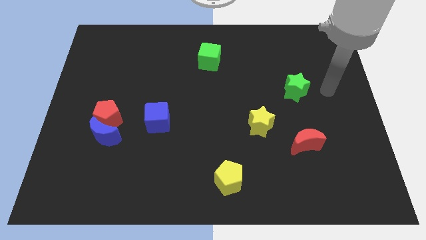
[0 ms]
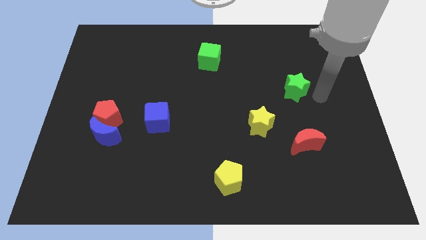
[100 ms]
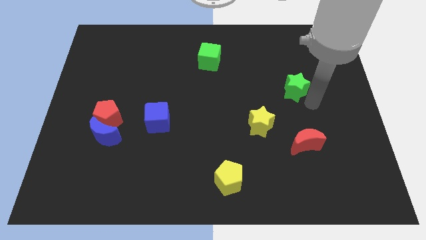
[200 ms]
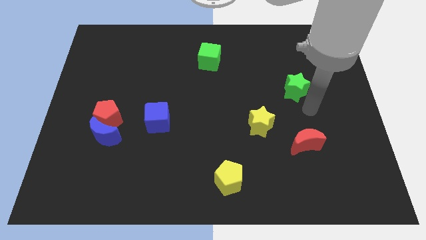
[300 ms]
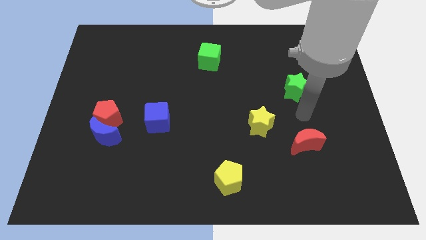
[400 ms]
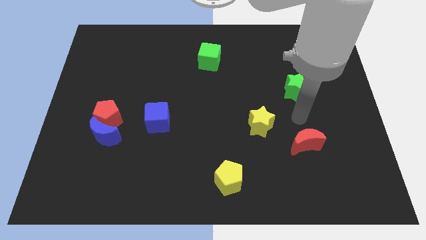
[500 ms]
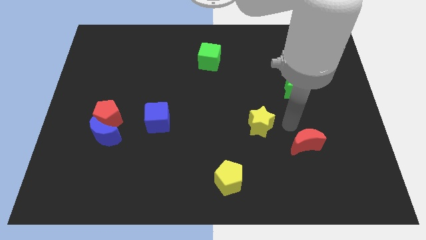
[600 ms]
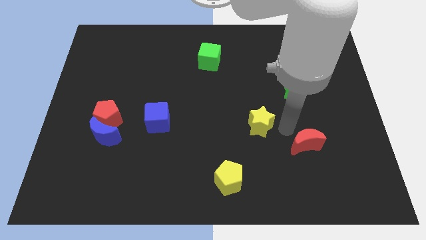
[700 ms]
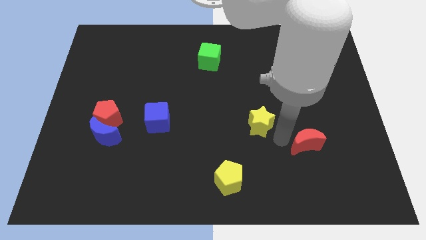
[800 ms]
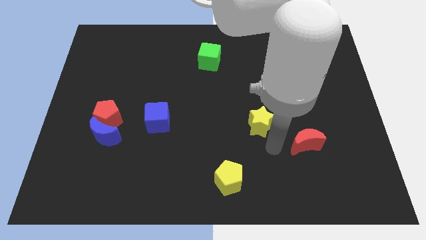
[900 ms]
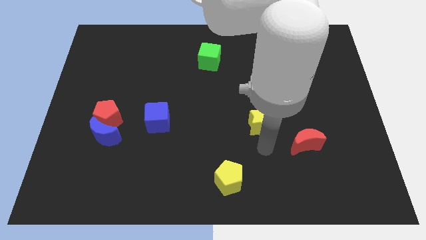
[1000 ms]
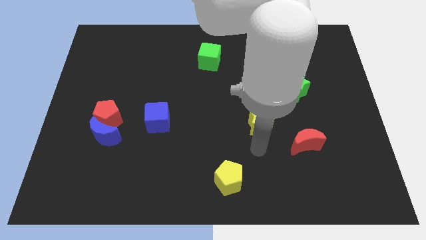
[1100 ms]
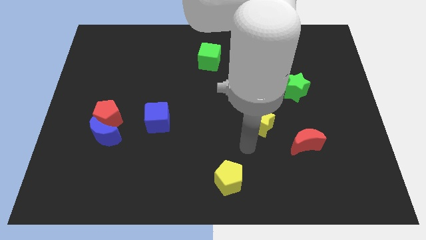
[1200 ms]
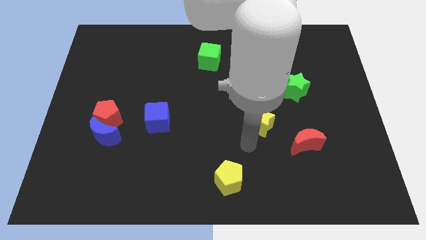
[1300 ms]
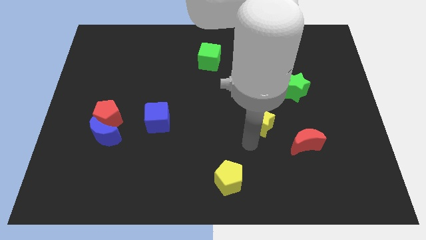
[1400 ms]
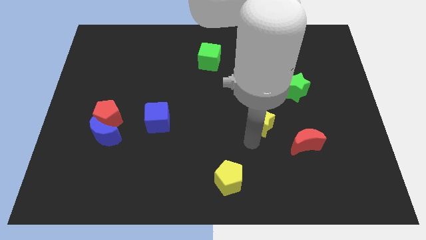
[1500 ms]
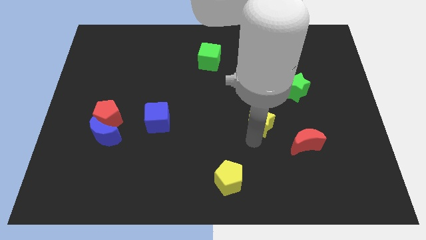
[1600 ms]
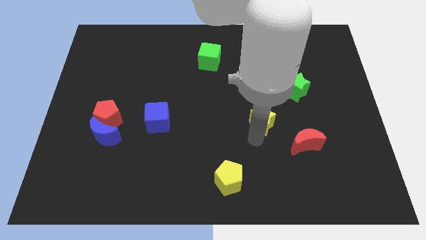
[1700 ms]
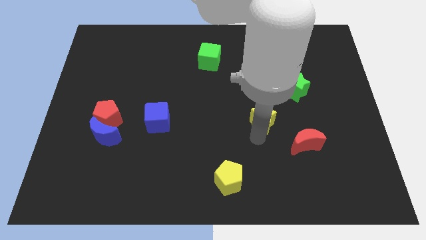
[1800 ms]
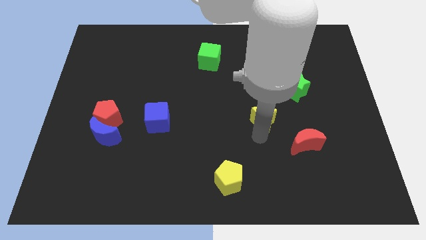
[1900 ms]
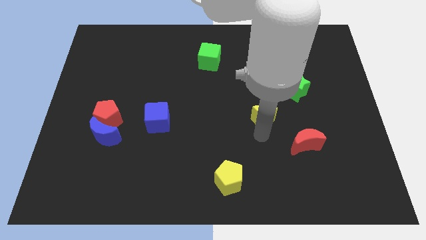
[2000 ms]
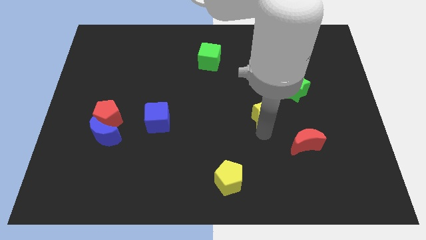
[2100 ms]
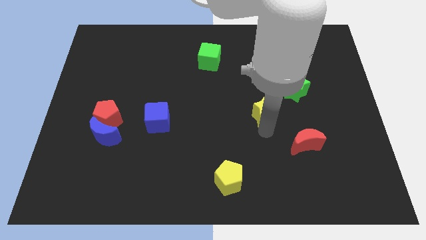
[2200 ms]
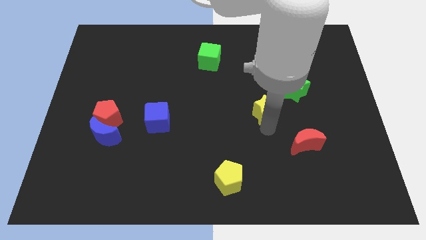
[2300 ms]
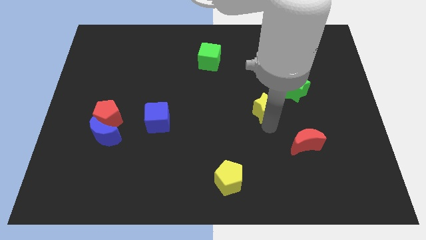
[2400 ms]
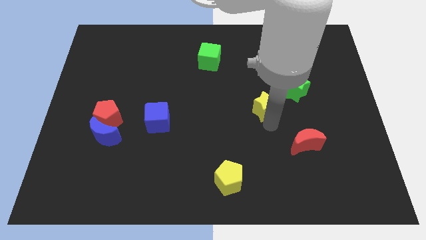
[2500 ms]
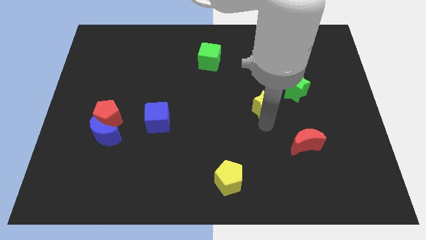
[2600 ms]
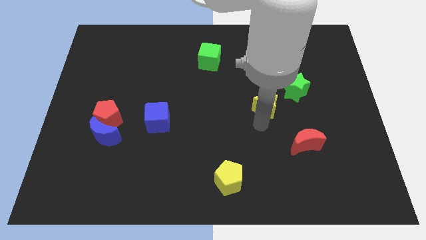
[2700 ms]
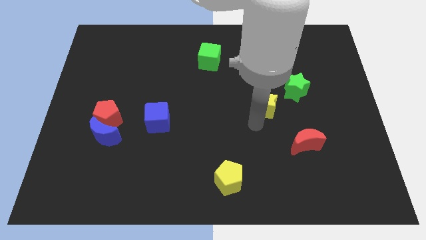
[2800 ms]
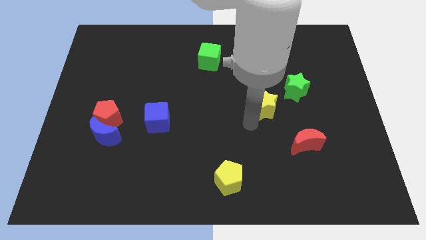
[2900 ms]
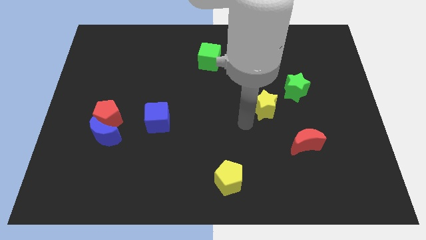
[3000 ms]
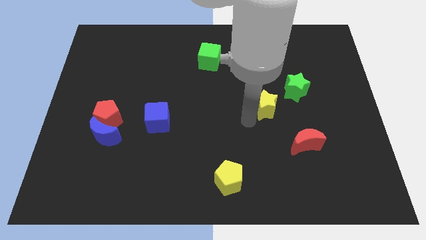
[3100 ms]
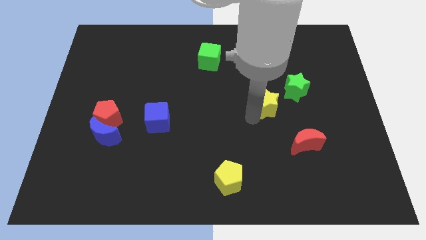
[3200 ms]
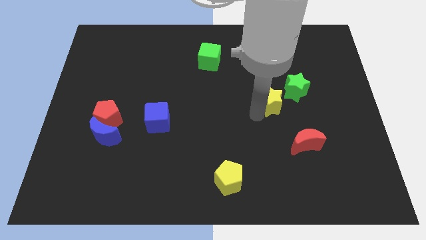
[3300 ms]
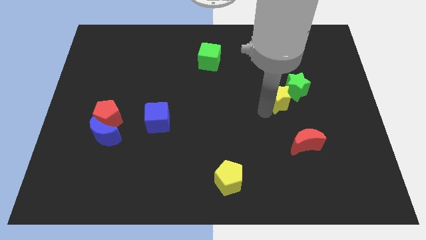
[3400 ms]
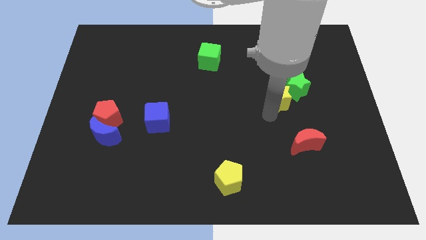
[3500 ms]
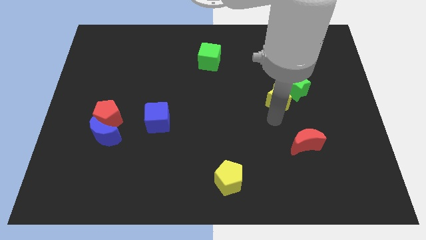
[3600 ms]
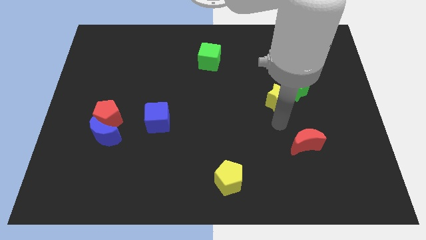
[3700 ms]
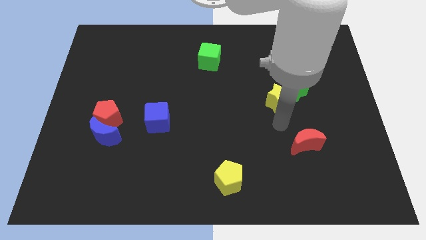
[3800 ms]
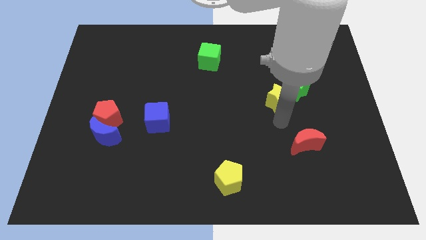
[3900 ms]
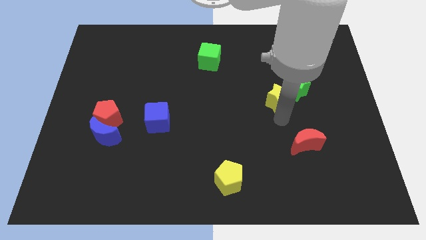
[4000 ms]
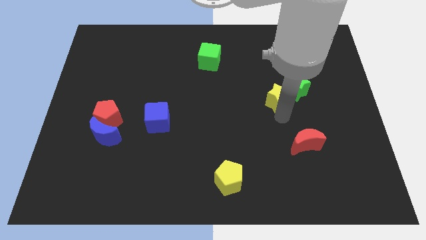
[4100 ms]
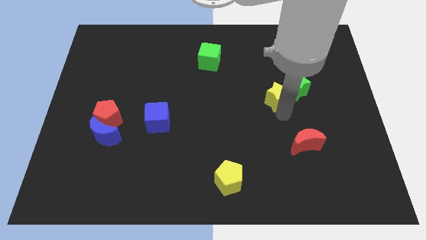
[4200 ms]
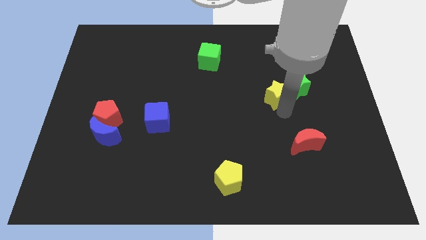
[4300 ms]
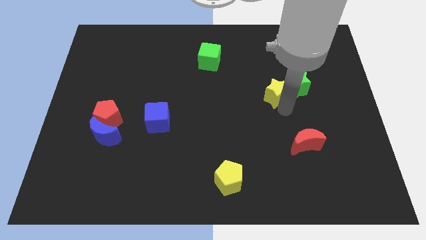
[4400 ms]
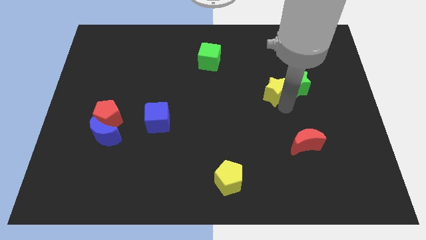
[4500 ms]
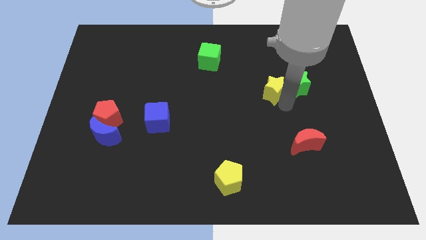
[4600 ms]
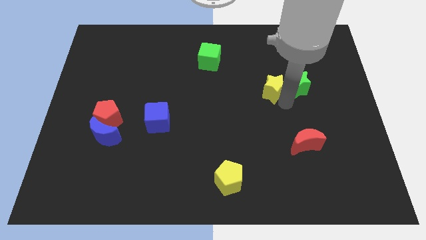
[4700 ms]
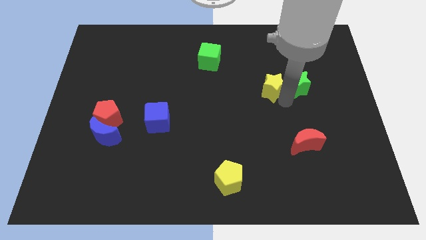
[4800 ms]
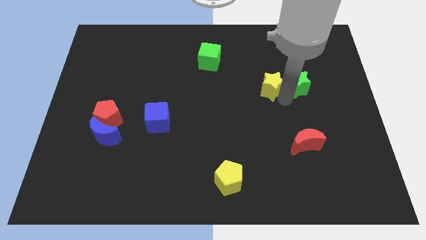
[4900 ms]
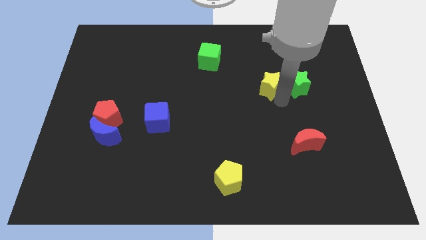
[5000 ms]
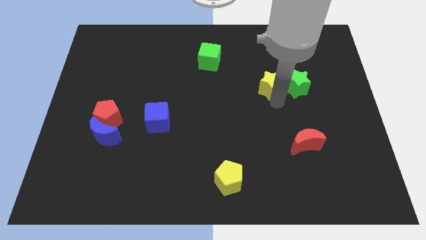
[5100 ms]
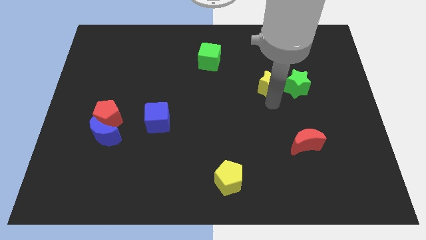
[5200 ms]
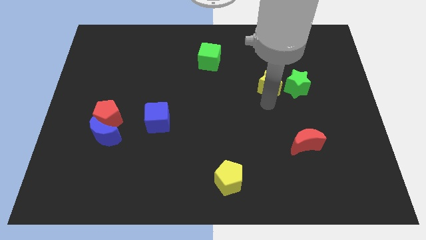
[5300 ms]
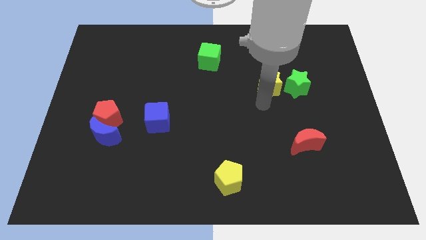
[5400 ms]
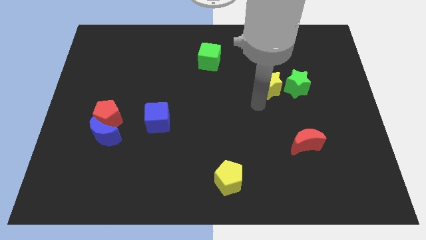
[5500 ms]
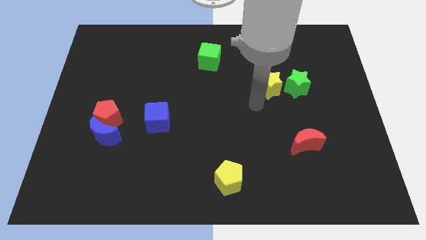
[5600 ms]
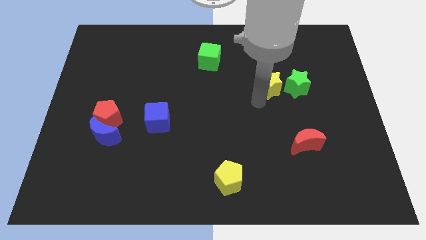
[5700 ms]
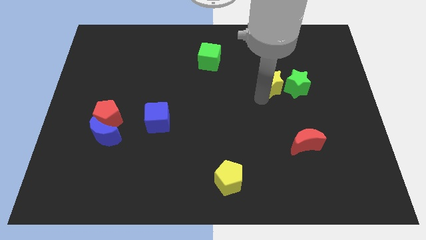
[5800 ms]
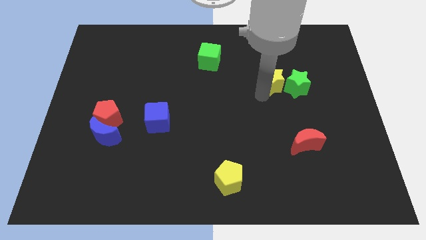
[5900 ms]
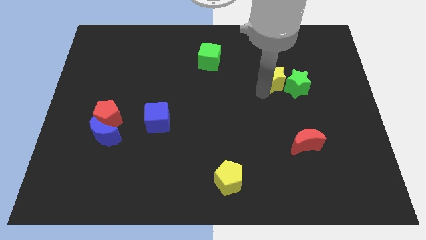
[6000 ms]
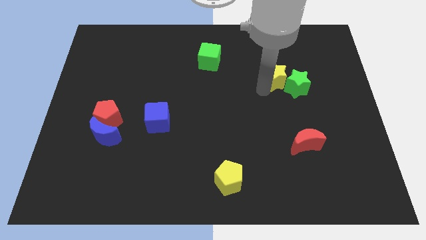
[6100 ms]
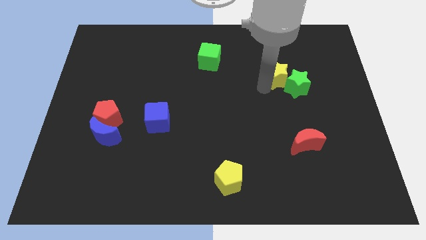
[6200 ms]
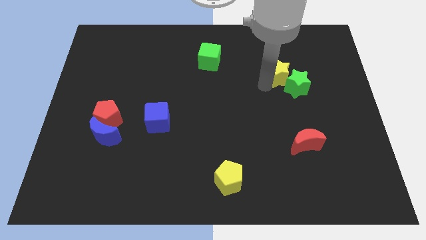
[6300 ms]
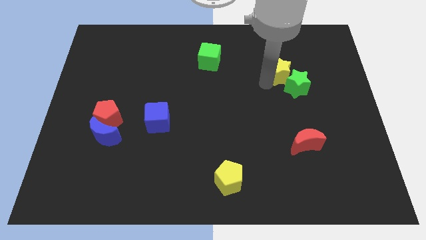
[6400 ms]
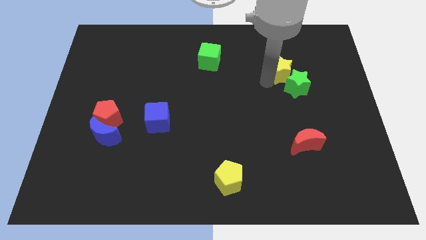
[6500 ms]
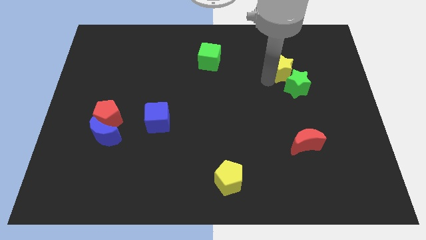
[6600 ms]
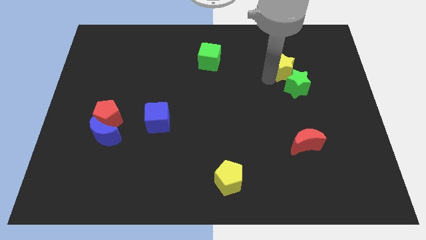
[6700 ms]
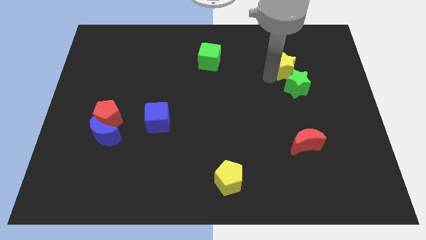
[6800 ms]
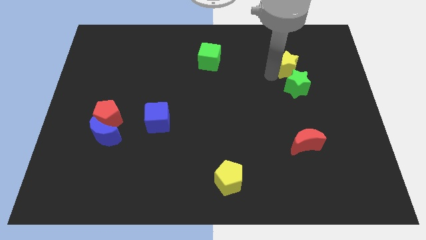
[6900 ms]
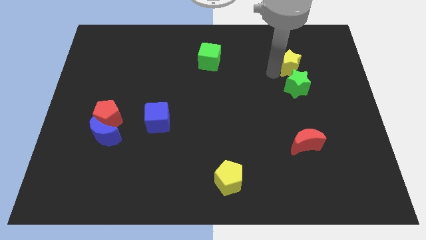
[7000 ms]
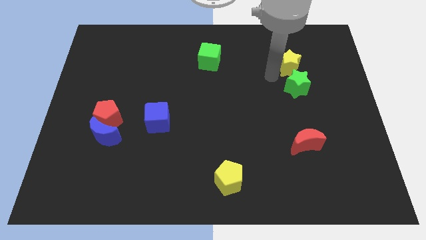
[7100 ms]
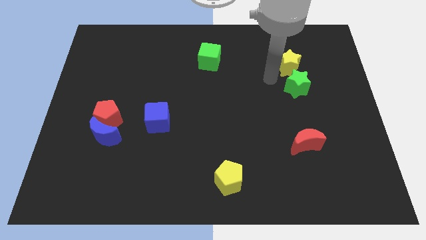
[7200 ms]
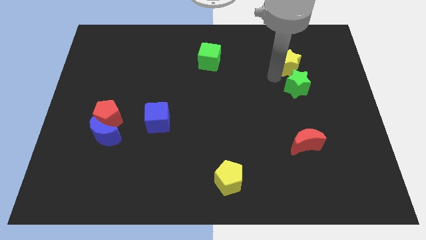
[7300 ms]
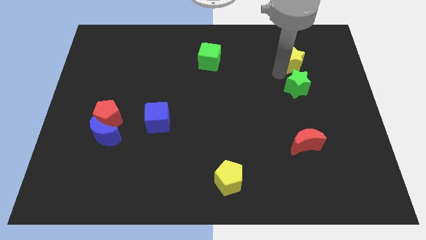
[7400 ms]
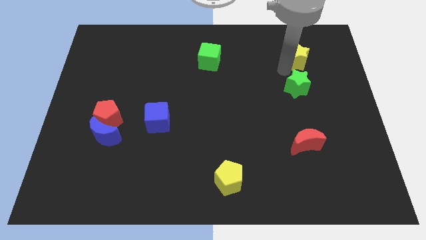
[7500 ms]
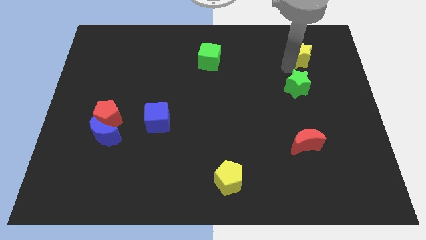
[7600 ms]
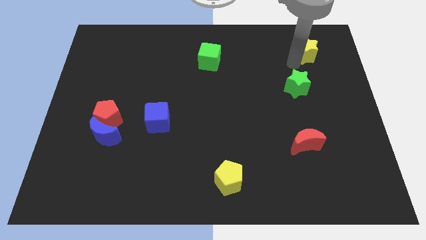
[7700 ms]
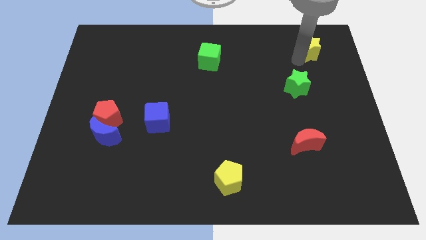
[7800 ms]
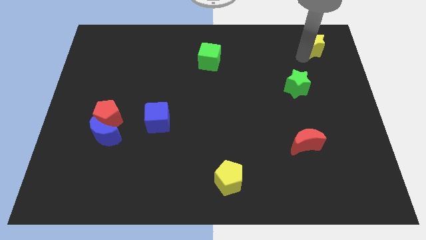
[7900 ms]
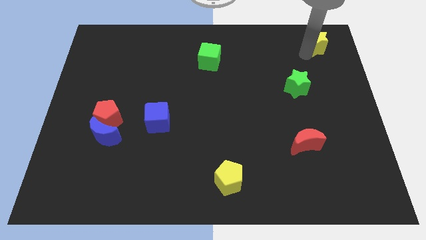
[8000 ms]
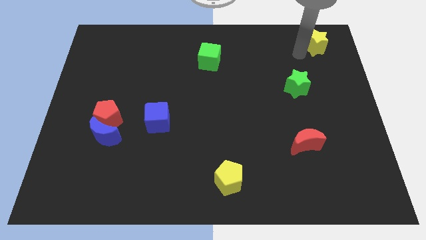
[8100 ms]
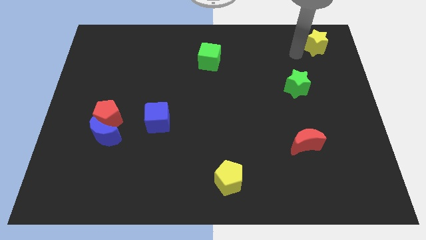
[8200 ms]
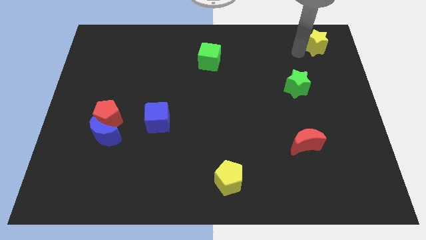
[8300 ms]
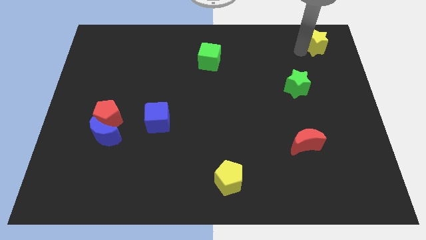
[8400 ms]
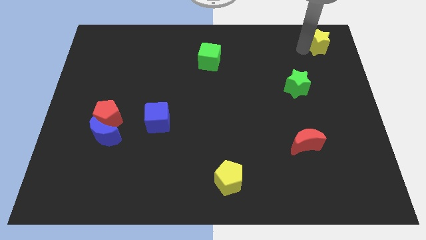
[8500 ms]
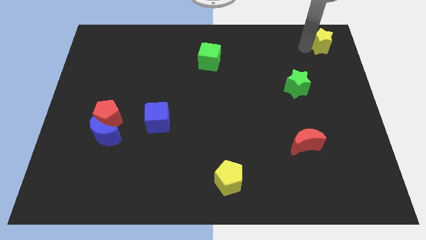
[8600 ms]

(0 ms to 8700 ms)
move the yellow star to the top right
